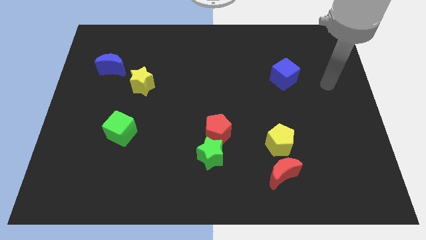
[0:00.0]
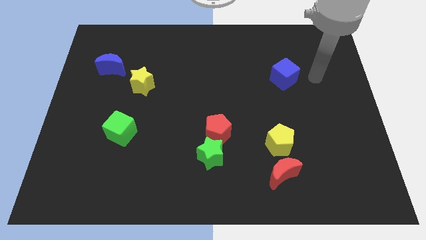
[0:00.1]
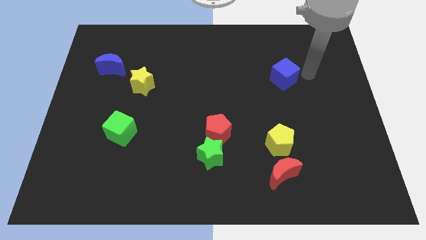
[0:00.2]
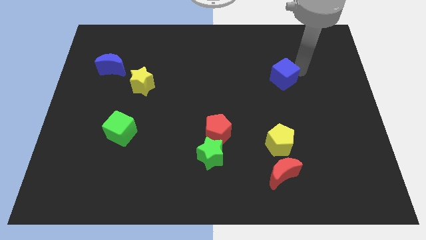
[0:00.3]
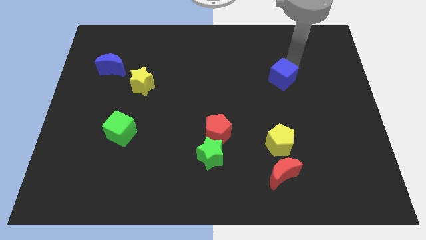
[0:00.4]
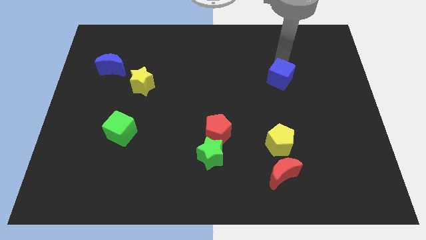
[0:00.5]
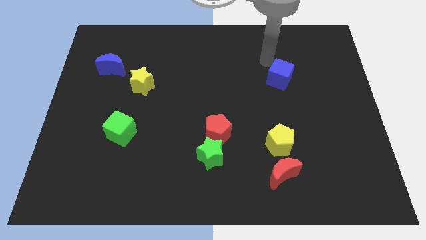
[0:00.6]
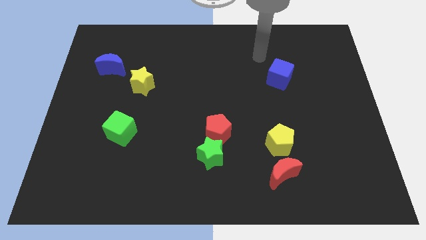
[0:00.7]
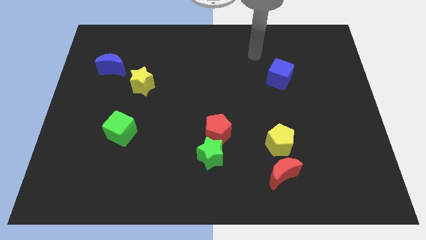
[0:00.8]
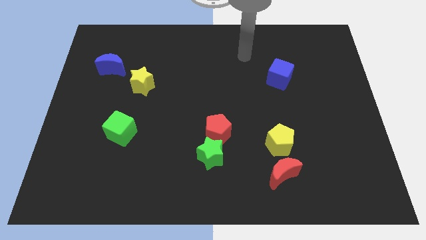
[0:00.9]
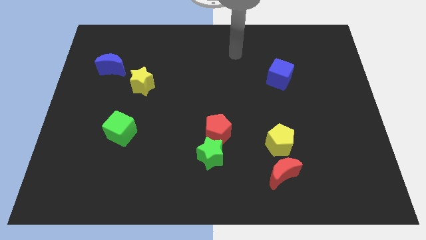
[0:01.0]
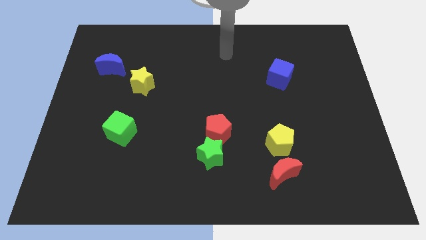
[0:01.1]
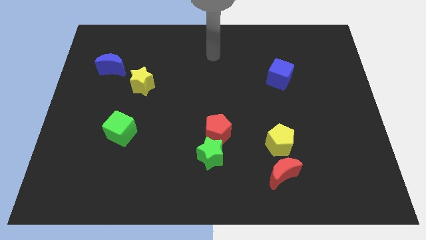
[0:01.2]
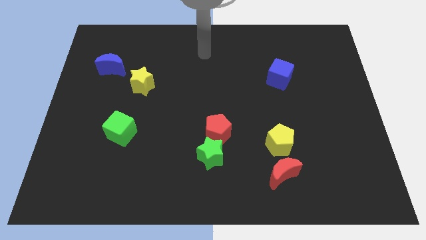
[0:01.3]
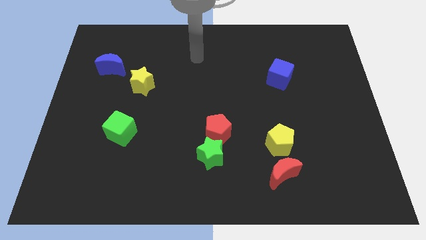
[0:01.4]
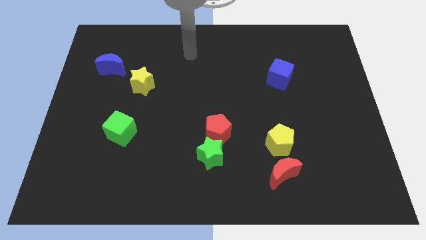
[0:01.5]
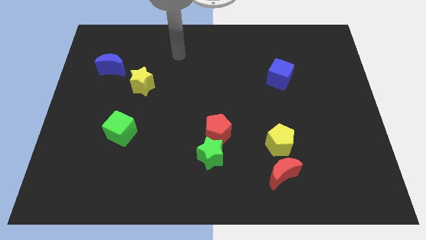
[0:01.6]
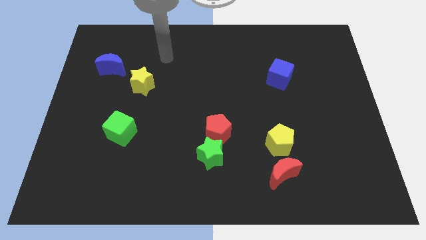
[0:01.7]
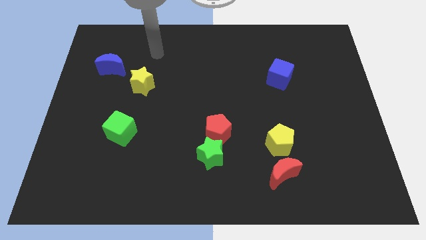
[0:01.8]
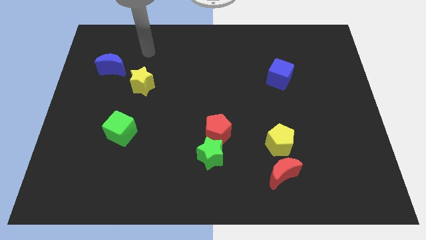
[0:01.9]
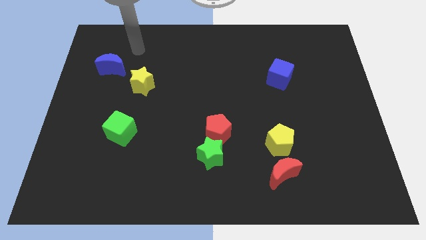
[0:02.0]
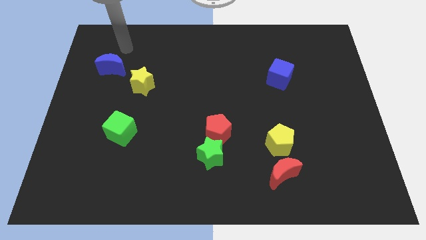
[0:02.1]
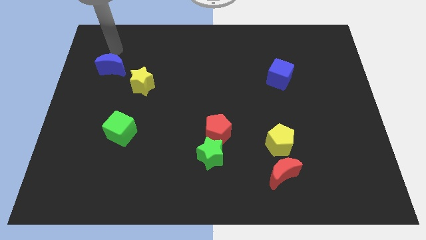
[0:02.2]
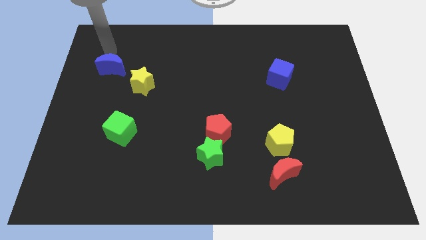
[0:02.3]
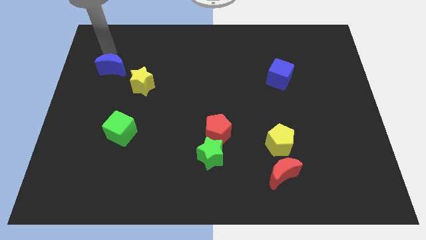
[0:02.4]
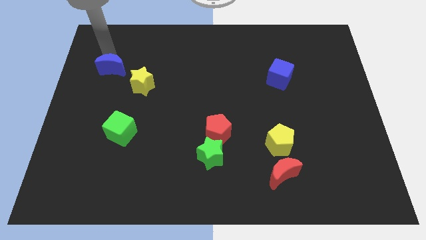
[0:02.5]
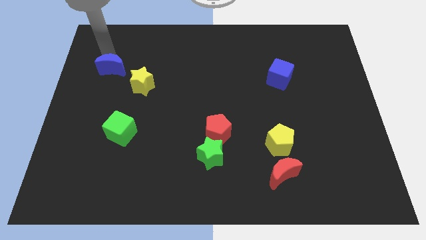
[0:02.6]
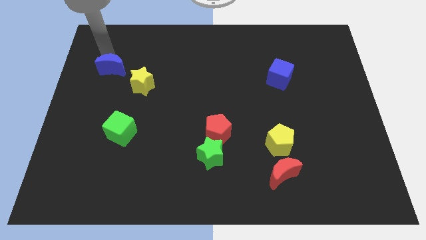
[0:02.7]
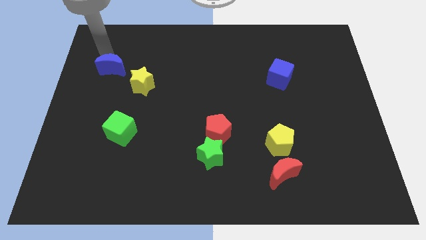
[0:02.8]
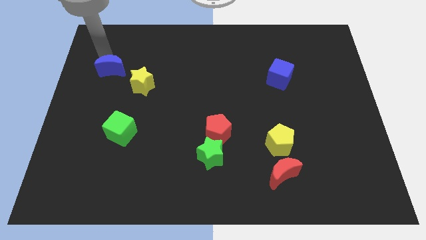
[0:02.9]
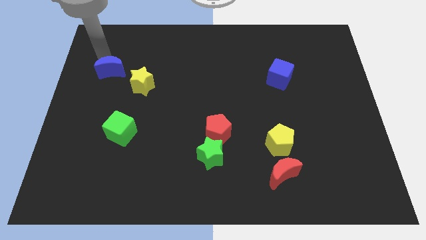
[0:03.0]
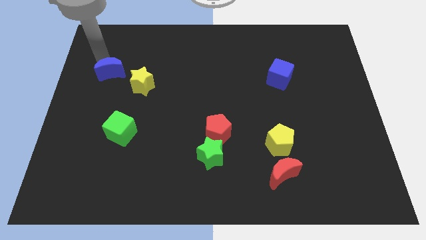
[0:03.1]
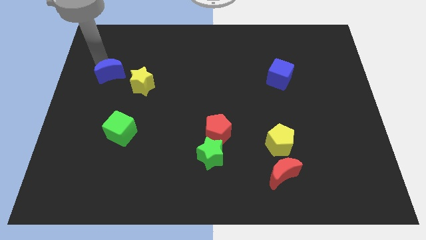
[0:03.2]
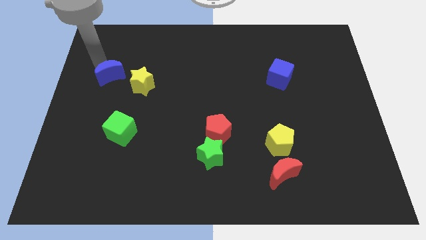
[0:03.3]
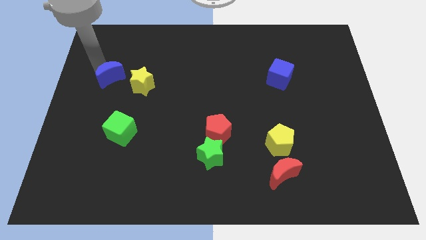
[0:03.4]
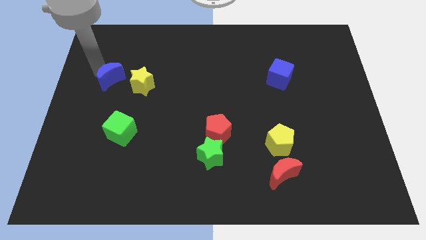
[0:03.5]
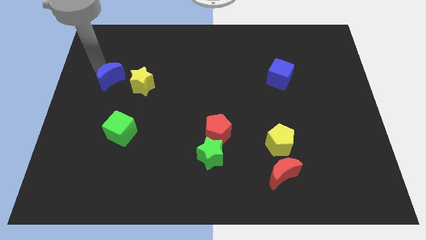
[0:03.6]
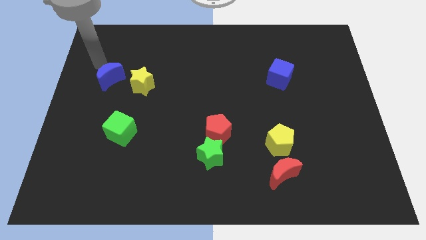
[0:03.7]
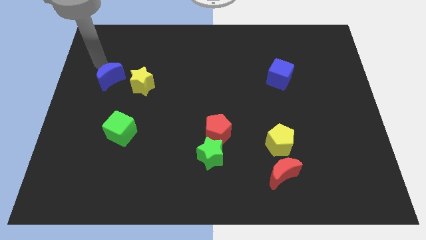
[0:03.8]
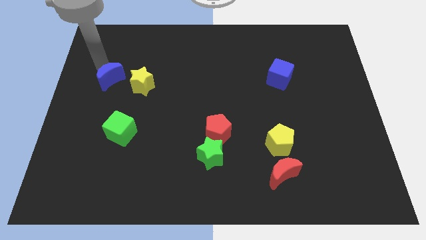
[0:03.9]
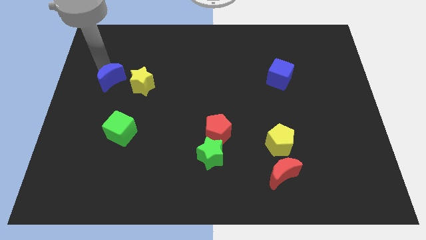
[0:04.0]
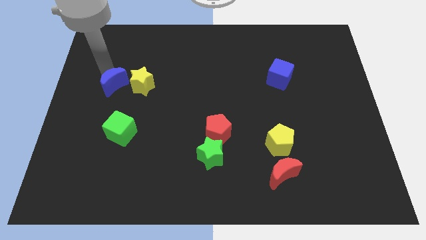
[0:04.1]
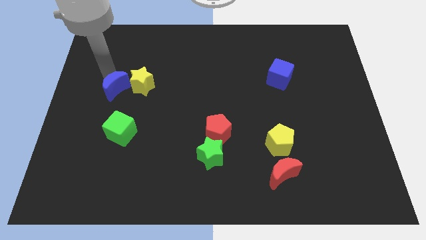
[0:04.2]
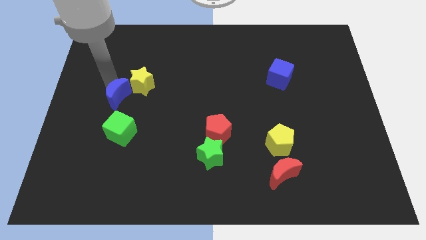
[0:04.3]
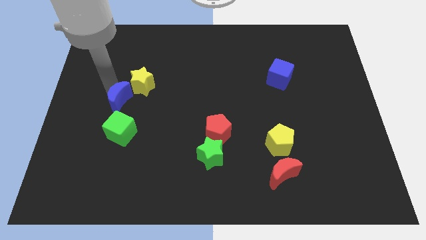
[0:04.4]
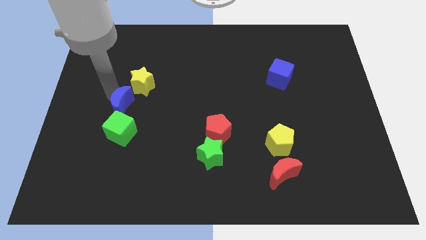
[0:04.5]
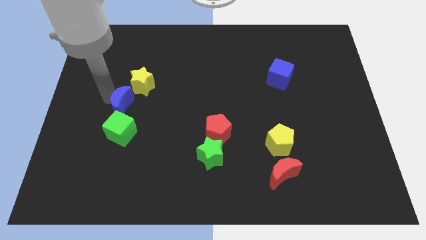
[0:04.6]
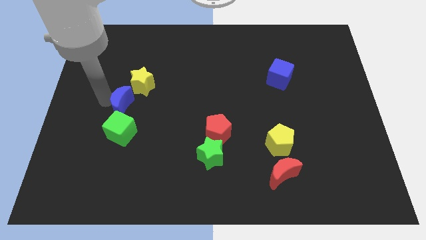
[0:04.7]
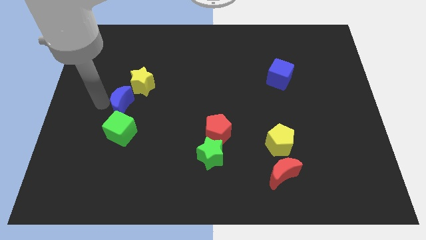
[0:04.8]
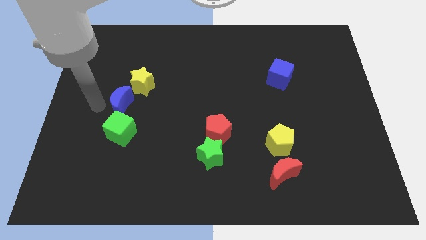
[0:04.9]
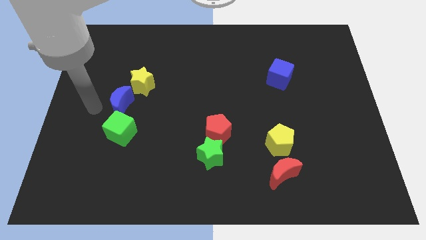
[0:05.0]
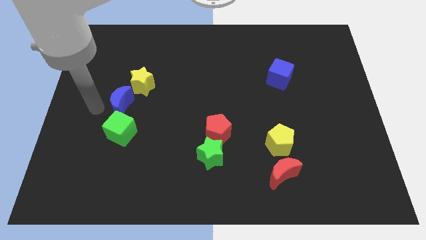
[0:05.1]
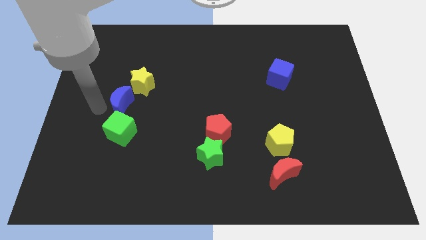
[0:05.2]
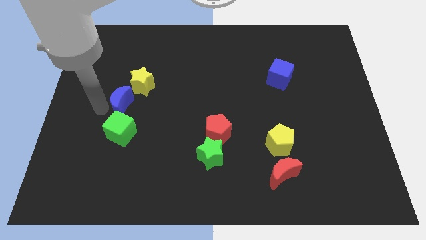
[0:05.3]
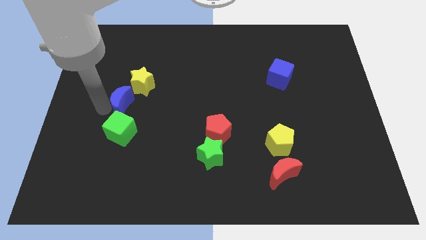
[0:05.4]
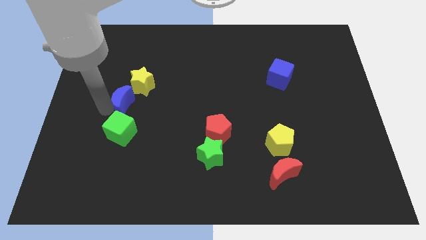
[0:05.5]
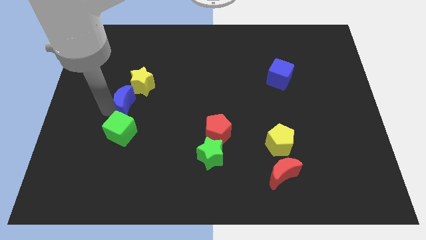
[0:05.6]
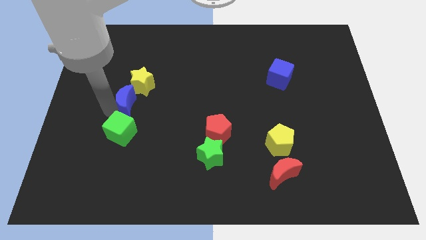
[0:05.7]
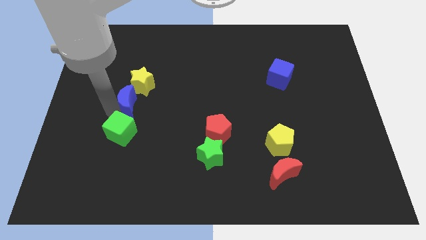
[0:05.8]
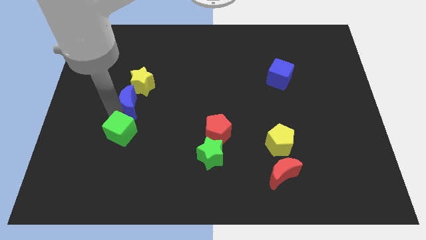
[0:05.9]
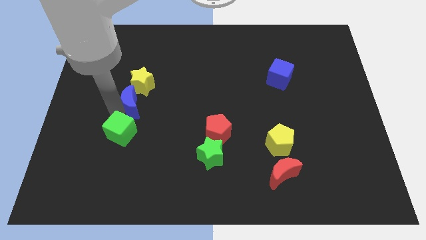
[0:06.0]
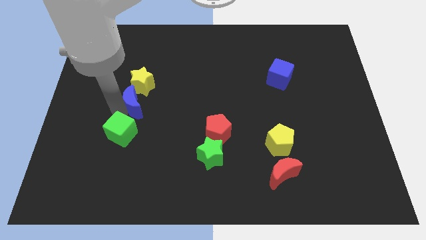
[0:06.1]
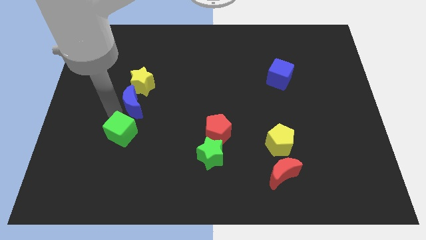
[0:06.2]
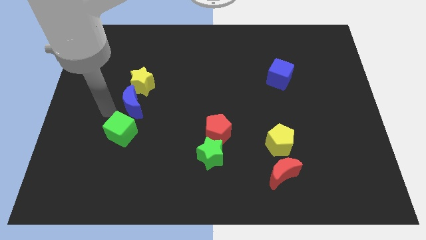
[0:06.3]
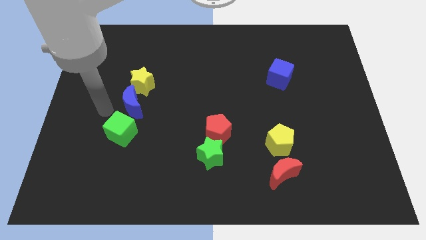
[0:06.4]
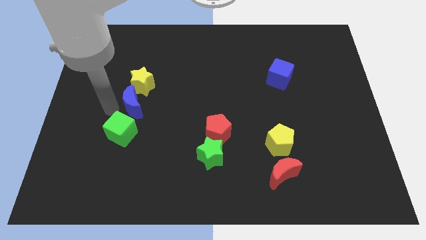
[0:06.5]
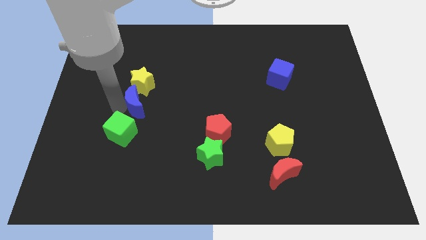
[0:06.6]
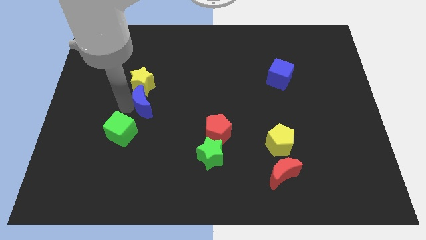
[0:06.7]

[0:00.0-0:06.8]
put the blue moon to the bottom right of the yellow star
